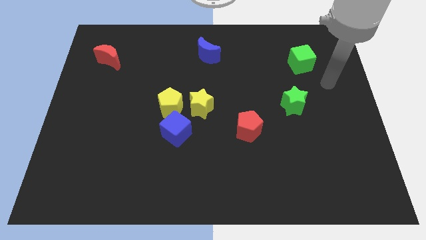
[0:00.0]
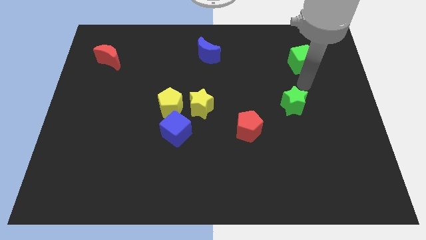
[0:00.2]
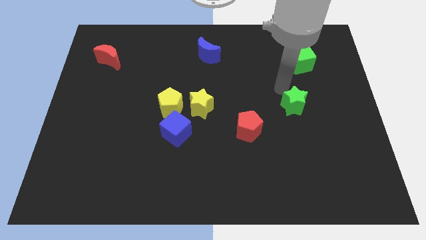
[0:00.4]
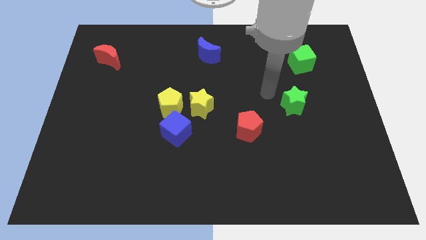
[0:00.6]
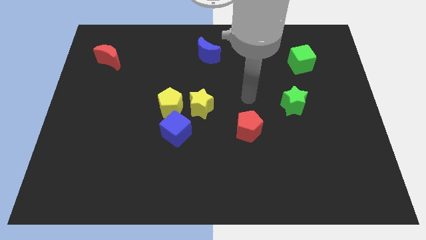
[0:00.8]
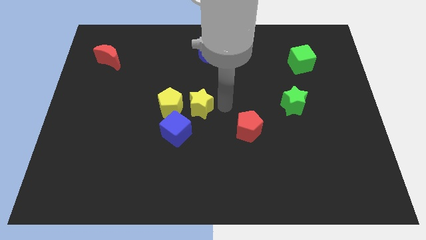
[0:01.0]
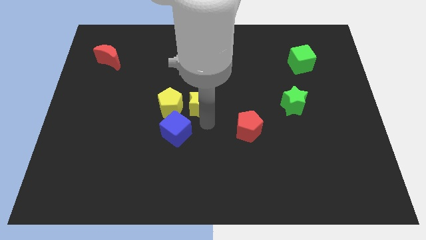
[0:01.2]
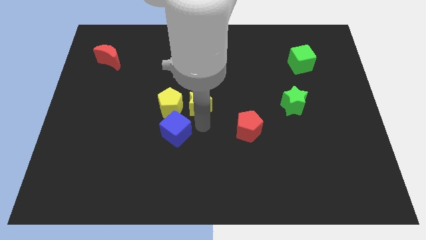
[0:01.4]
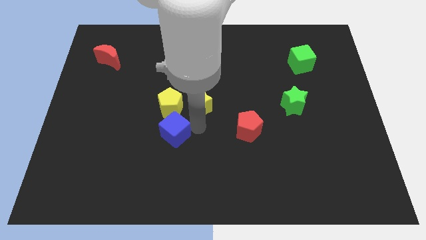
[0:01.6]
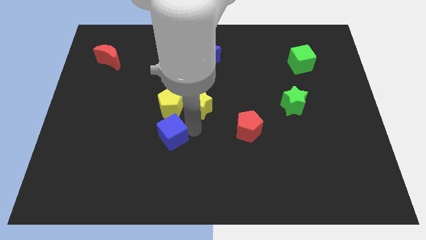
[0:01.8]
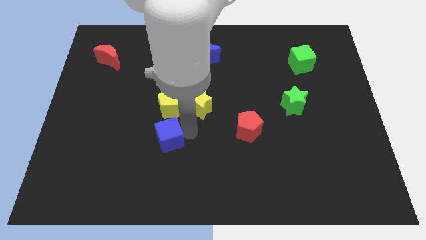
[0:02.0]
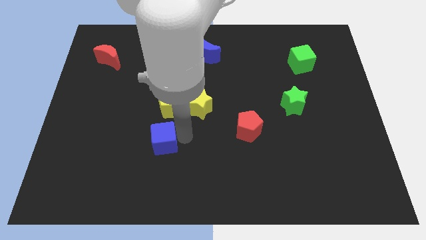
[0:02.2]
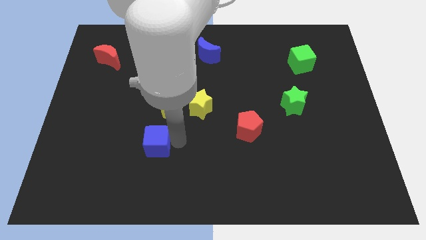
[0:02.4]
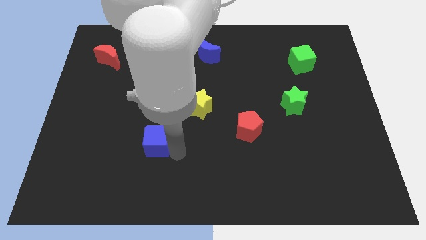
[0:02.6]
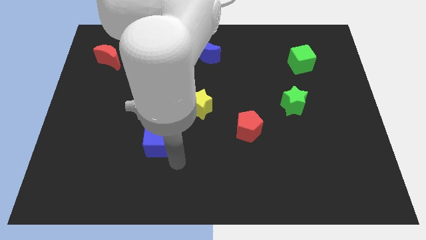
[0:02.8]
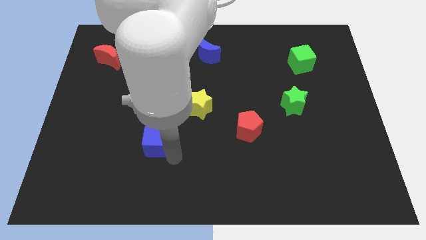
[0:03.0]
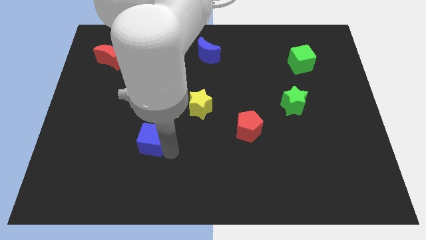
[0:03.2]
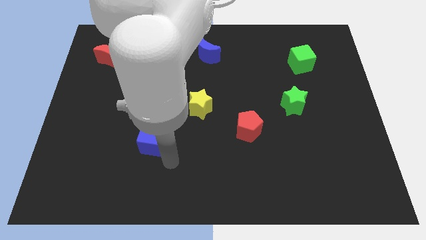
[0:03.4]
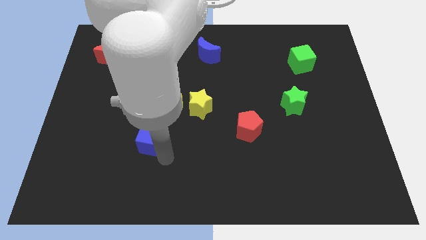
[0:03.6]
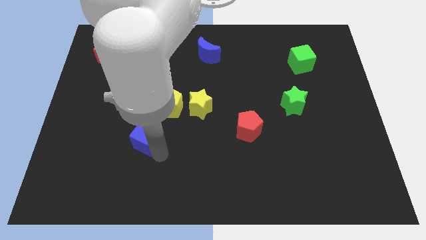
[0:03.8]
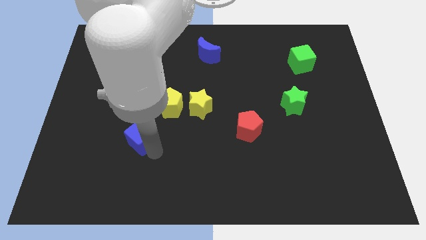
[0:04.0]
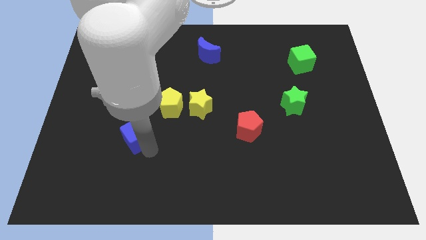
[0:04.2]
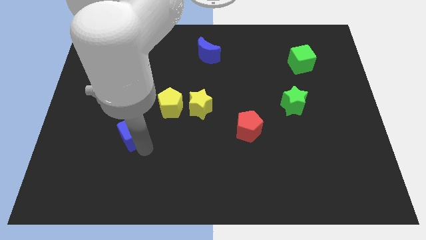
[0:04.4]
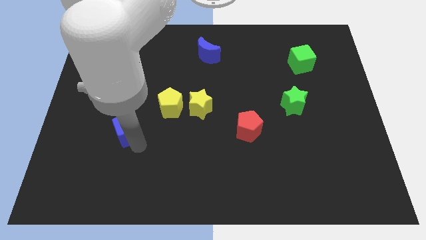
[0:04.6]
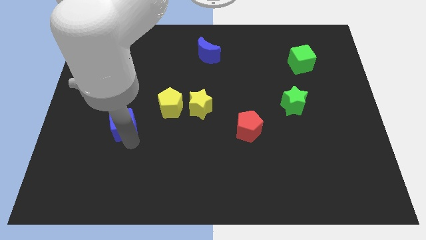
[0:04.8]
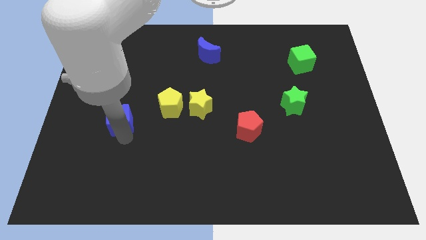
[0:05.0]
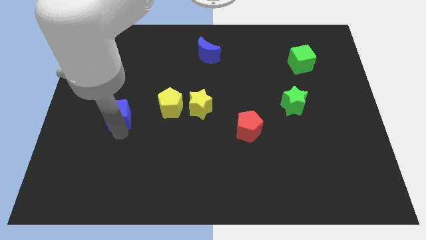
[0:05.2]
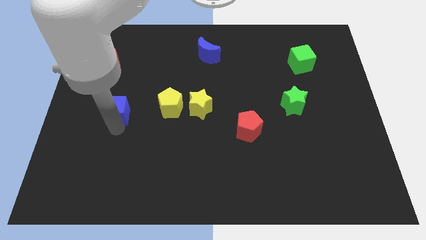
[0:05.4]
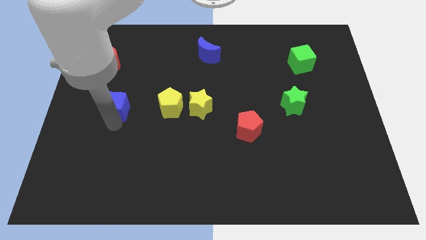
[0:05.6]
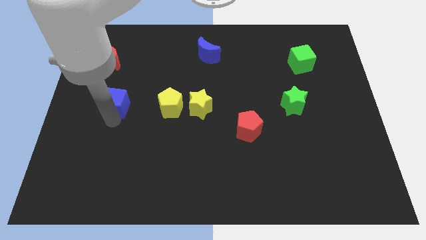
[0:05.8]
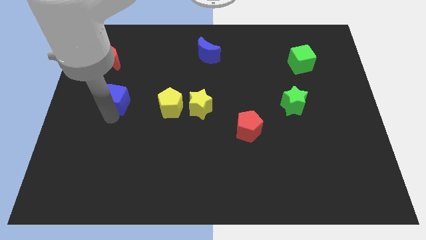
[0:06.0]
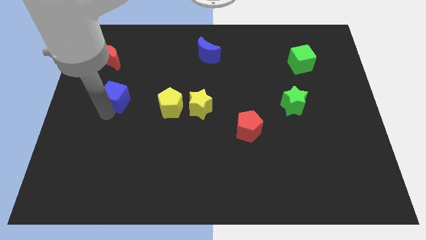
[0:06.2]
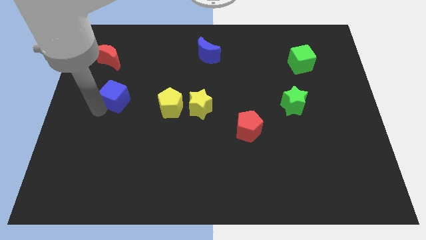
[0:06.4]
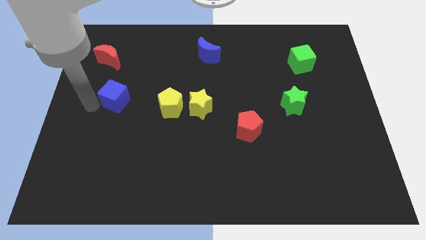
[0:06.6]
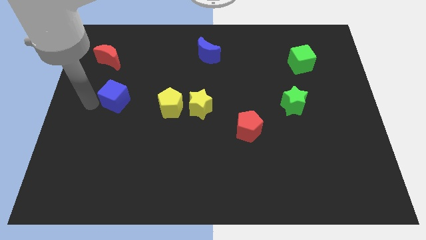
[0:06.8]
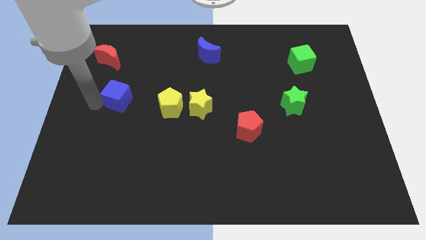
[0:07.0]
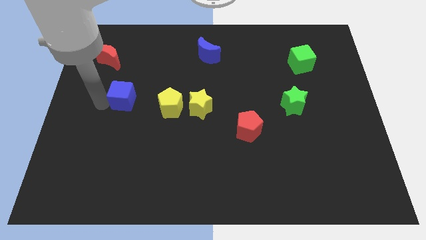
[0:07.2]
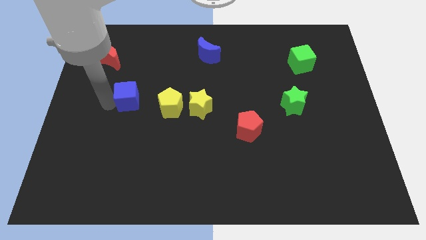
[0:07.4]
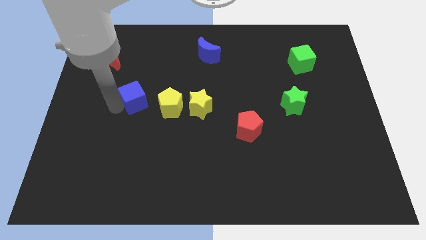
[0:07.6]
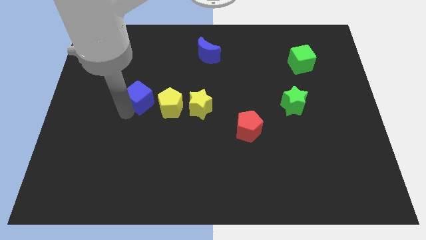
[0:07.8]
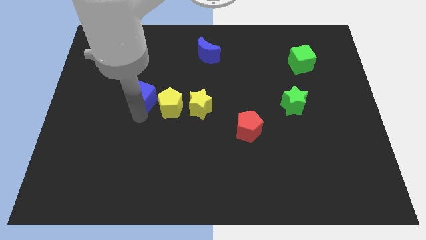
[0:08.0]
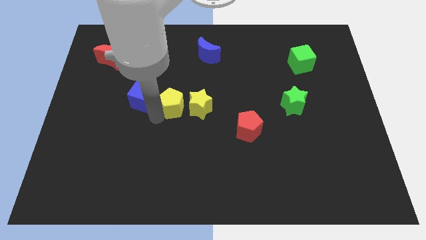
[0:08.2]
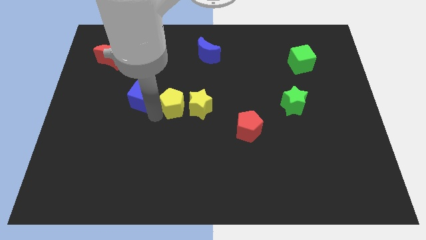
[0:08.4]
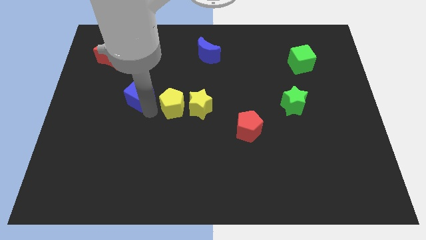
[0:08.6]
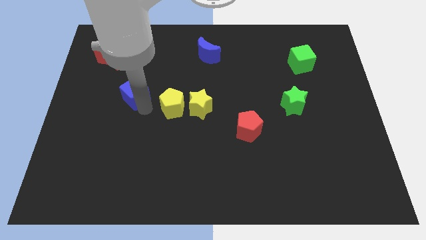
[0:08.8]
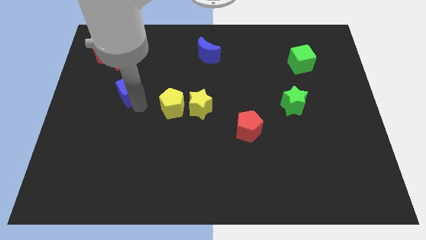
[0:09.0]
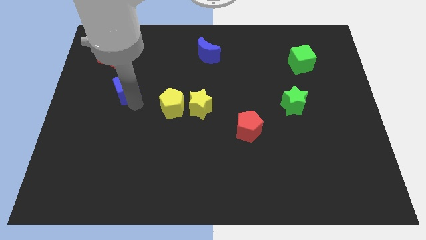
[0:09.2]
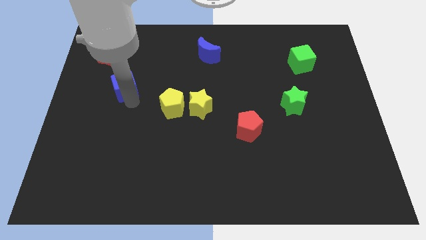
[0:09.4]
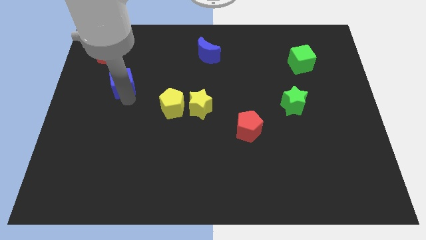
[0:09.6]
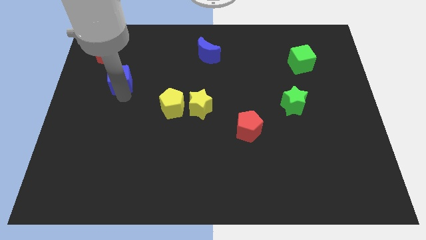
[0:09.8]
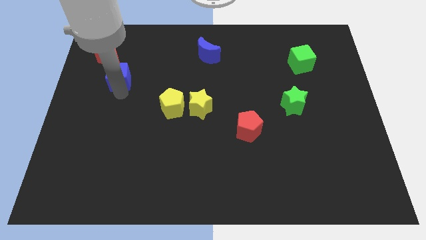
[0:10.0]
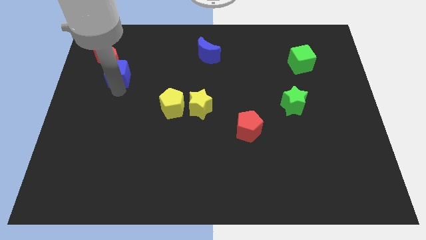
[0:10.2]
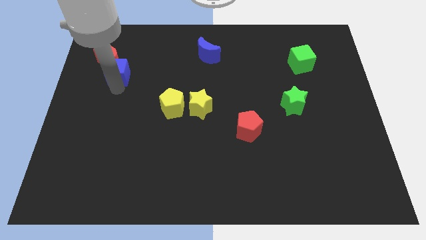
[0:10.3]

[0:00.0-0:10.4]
push the blue cube to the red moon

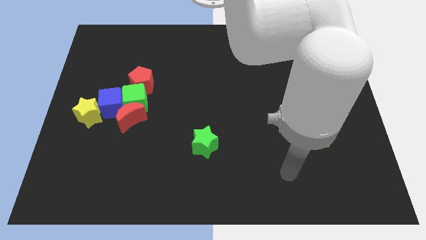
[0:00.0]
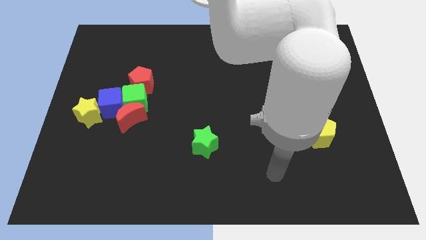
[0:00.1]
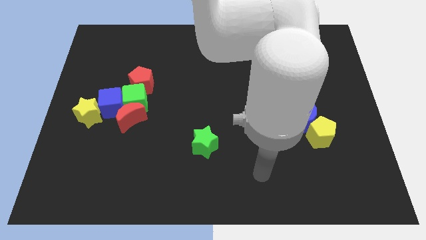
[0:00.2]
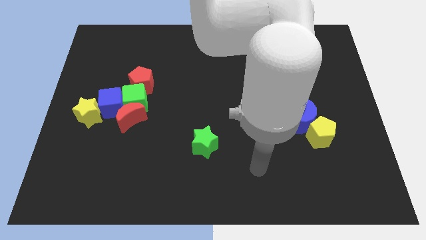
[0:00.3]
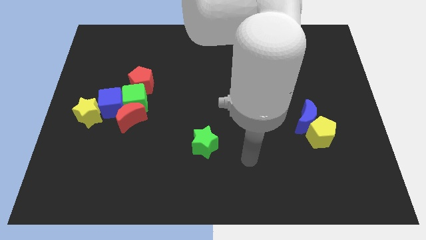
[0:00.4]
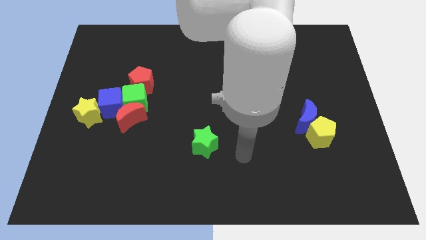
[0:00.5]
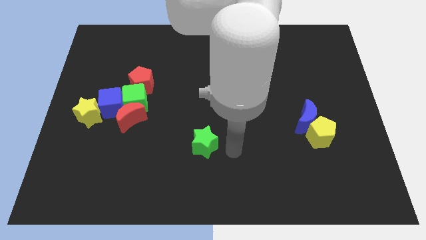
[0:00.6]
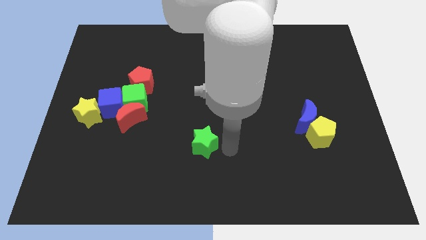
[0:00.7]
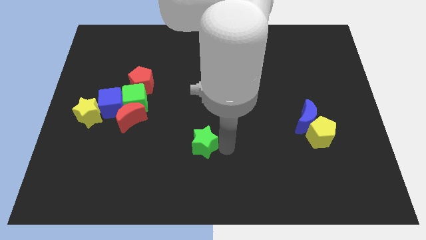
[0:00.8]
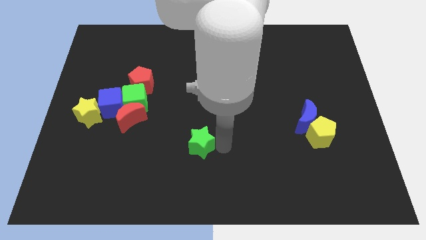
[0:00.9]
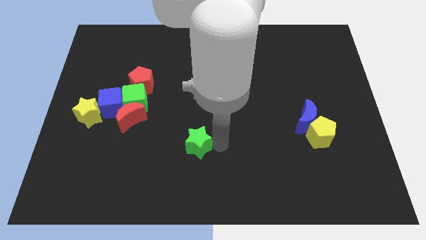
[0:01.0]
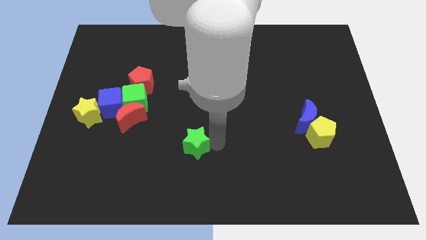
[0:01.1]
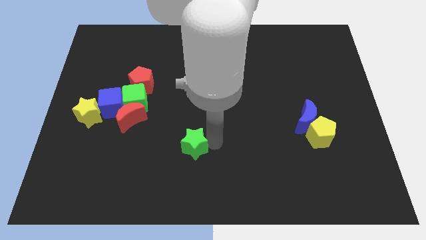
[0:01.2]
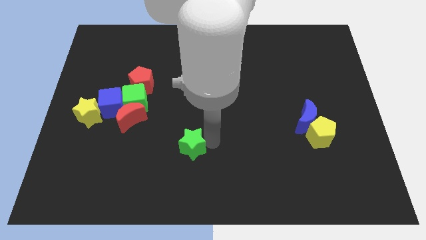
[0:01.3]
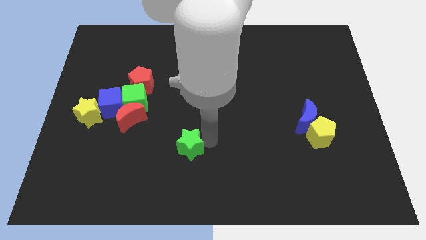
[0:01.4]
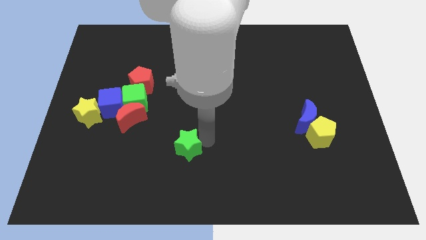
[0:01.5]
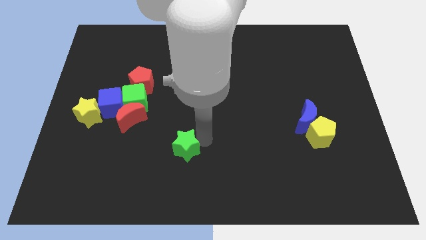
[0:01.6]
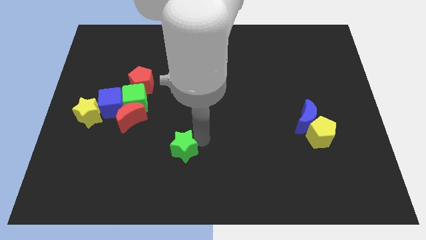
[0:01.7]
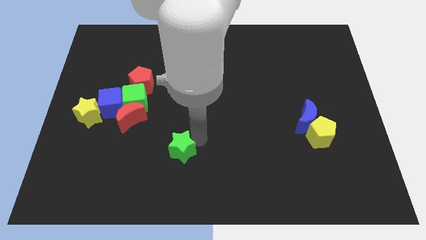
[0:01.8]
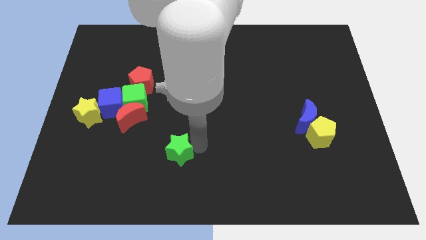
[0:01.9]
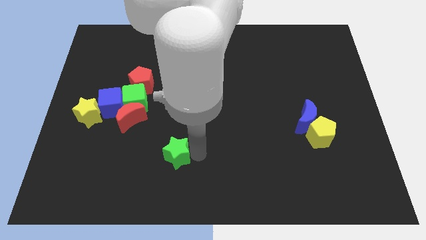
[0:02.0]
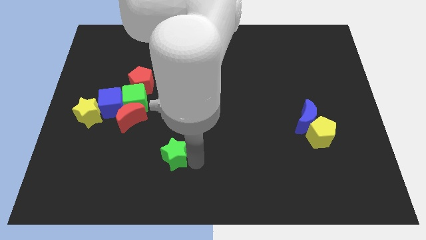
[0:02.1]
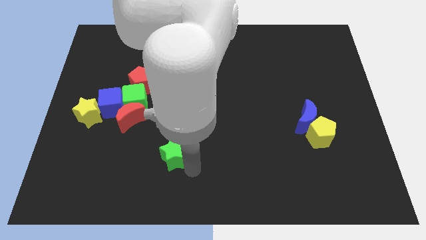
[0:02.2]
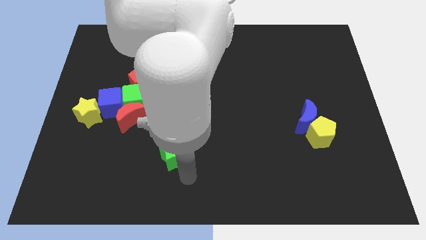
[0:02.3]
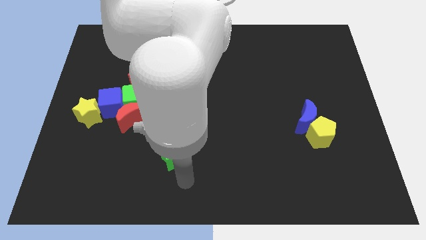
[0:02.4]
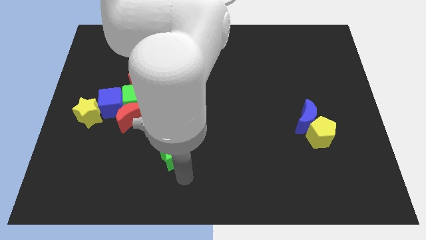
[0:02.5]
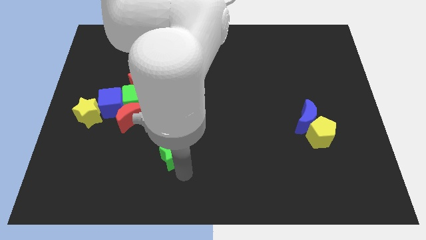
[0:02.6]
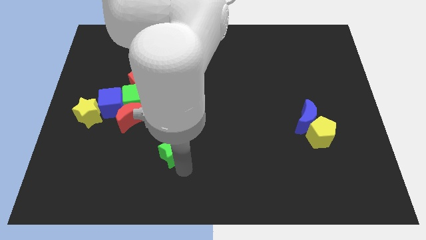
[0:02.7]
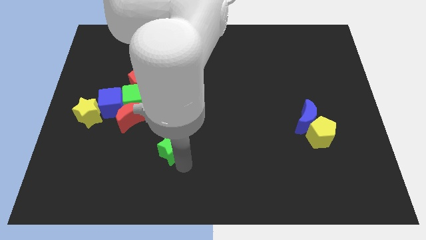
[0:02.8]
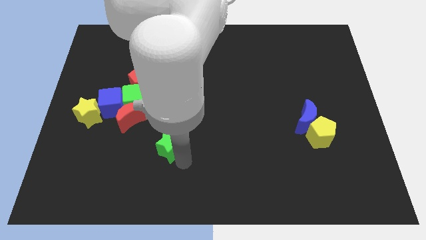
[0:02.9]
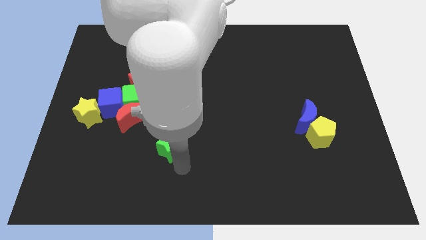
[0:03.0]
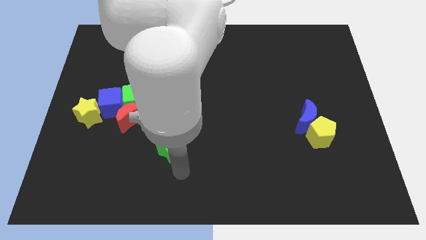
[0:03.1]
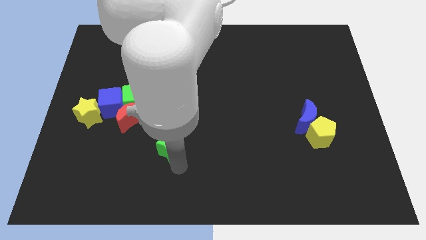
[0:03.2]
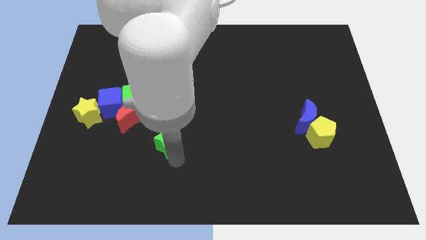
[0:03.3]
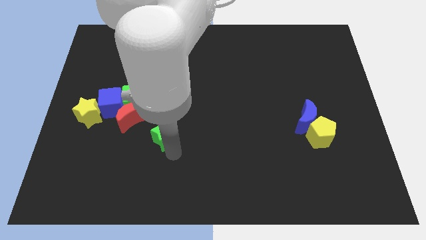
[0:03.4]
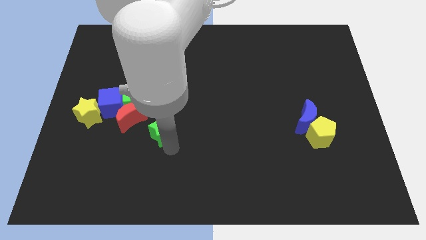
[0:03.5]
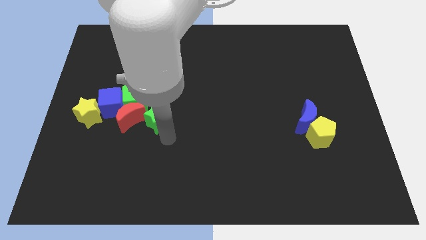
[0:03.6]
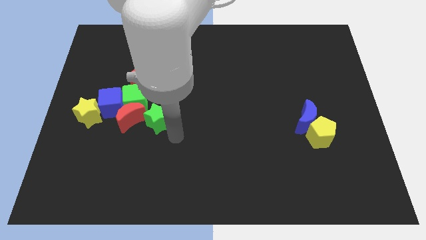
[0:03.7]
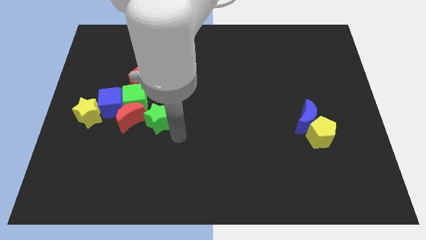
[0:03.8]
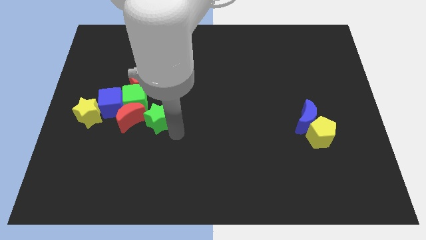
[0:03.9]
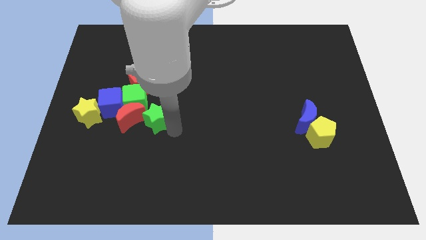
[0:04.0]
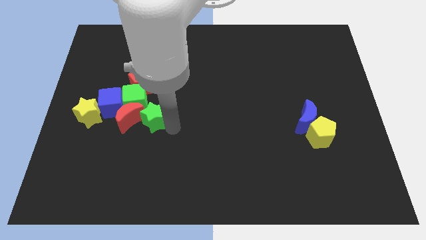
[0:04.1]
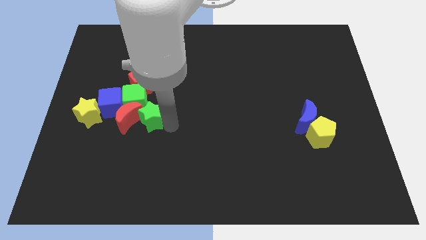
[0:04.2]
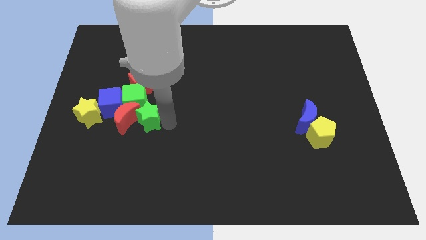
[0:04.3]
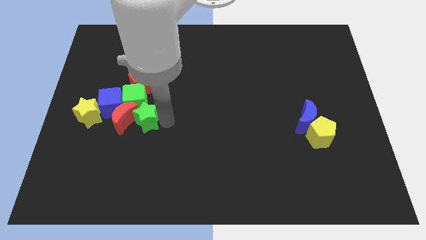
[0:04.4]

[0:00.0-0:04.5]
put the green star close to the green cube
